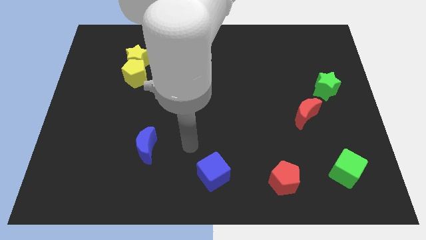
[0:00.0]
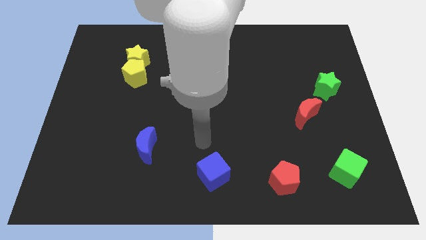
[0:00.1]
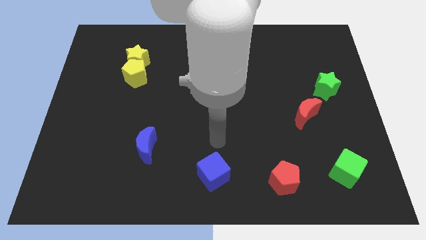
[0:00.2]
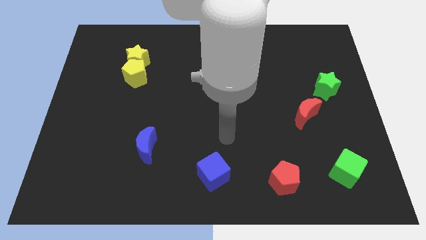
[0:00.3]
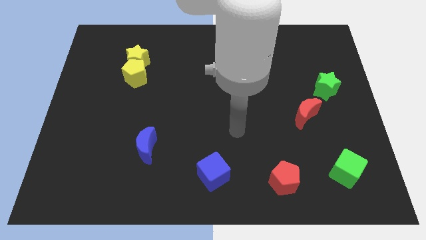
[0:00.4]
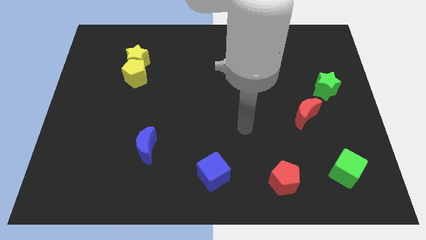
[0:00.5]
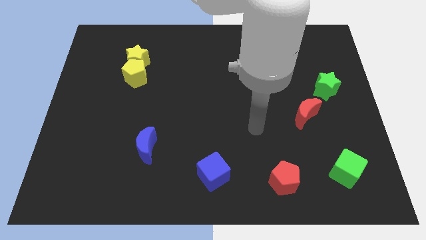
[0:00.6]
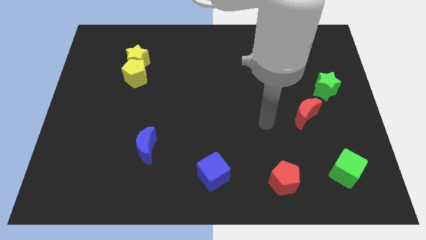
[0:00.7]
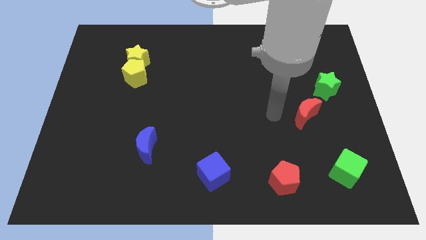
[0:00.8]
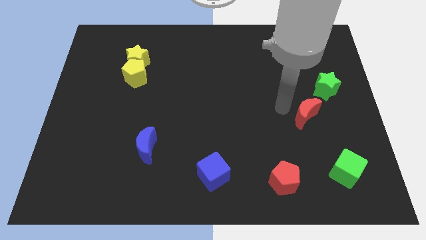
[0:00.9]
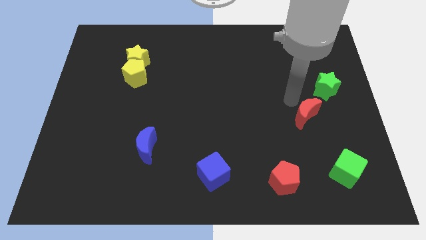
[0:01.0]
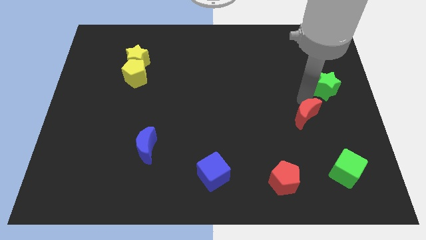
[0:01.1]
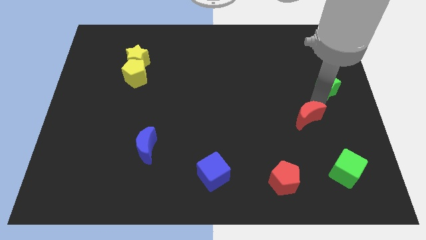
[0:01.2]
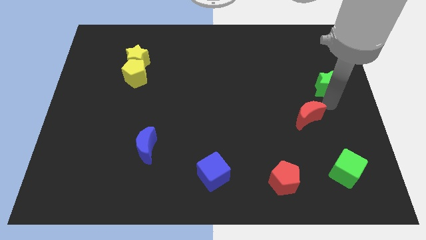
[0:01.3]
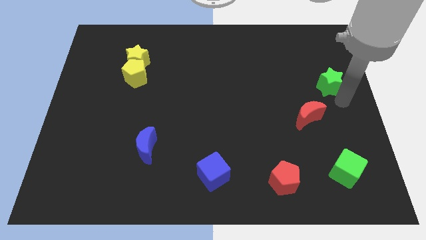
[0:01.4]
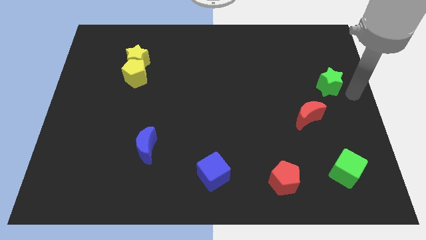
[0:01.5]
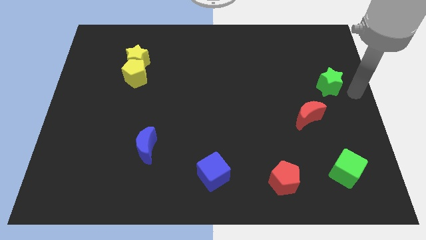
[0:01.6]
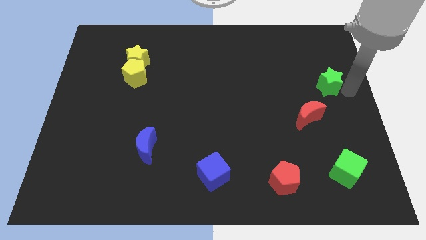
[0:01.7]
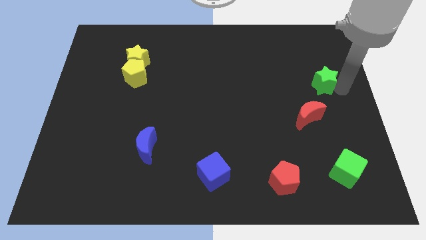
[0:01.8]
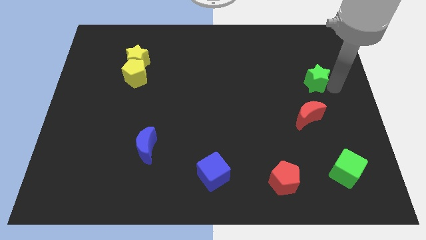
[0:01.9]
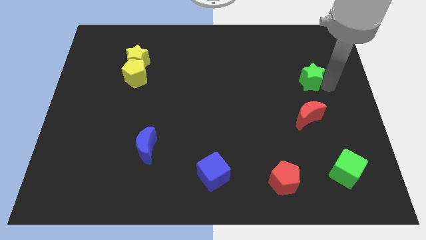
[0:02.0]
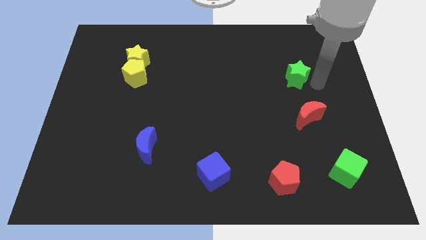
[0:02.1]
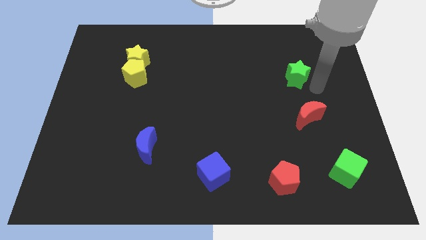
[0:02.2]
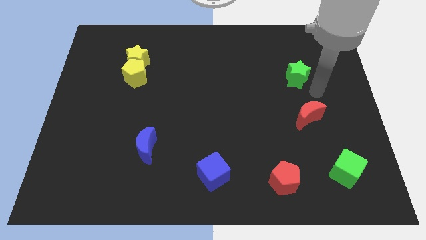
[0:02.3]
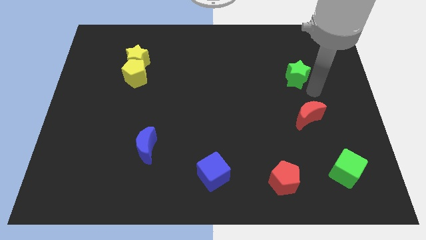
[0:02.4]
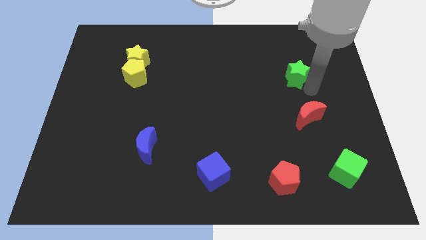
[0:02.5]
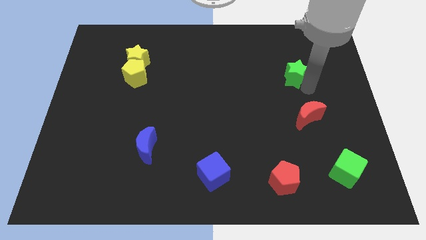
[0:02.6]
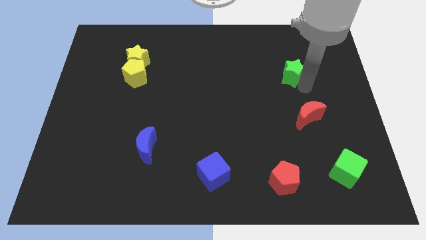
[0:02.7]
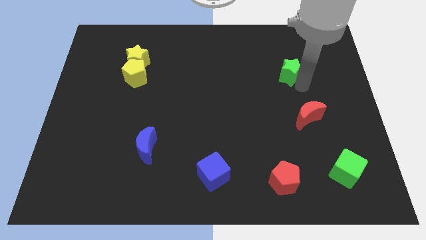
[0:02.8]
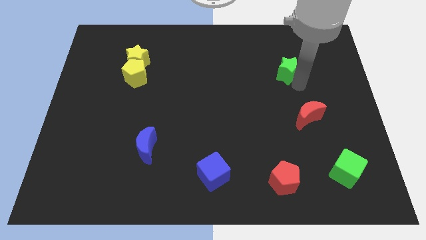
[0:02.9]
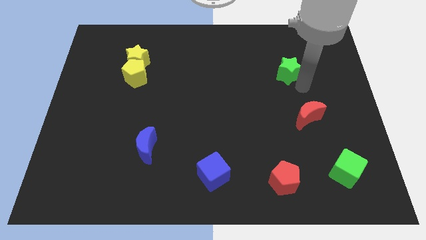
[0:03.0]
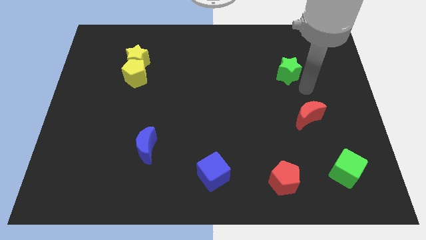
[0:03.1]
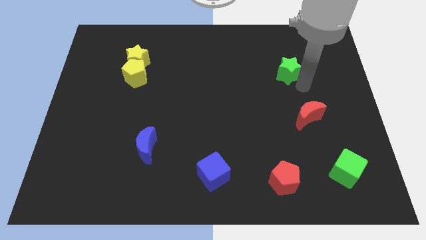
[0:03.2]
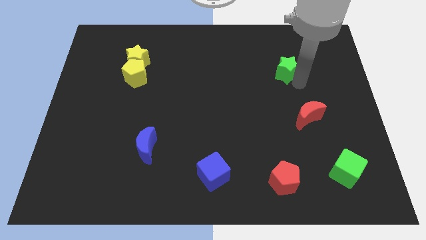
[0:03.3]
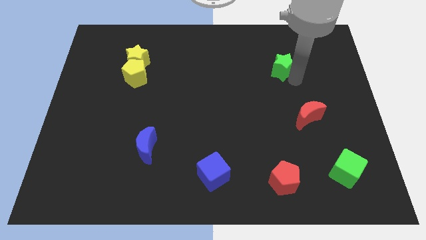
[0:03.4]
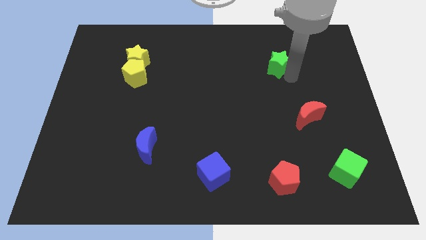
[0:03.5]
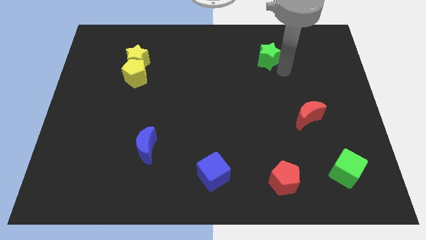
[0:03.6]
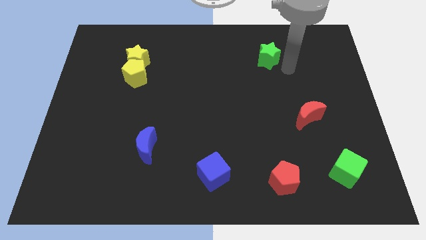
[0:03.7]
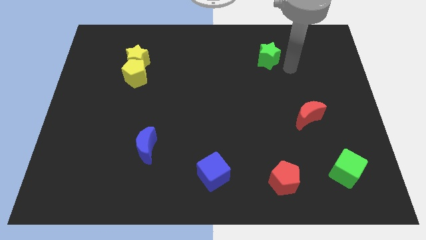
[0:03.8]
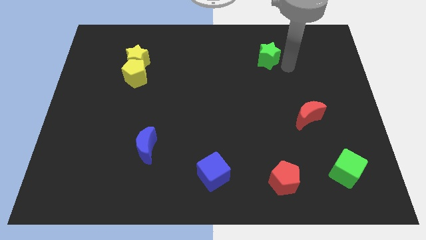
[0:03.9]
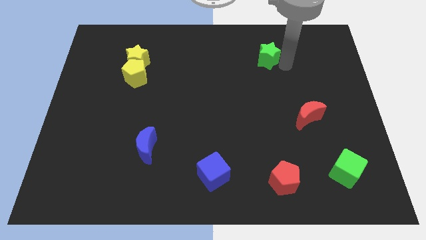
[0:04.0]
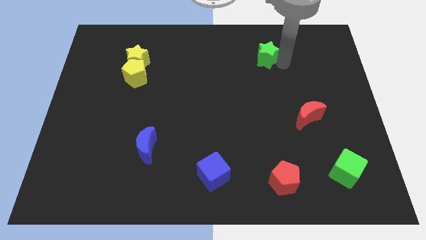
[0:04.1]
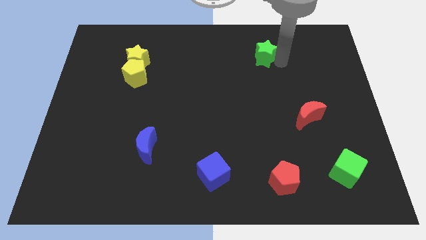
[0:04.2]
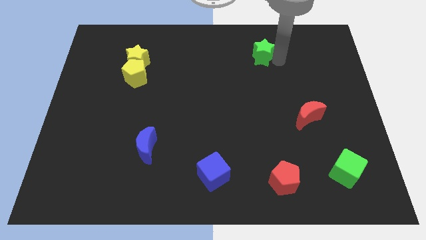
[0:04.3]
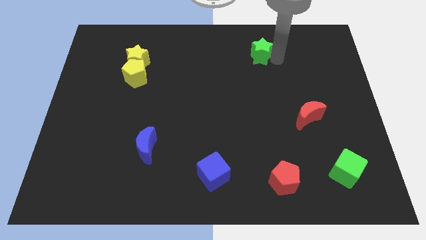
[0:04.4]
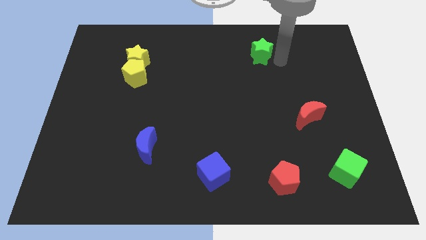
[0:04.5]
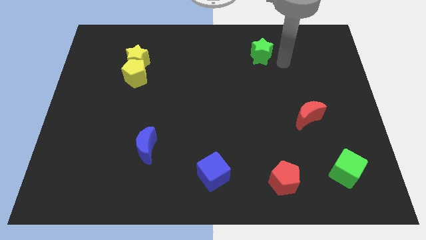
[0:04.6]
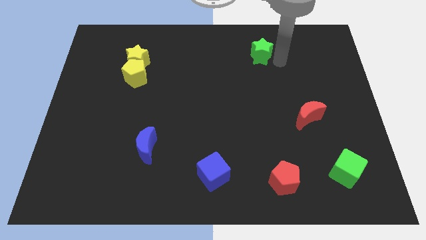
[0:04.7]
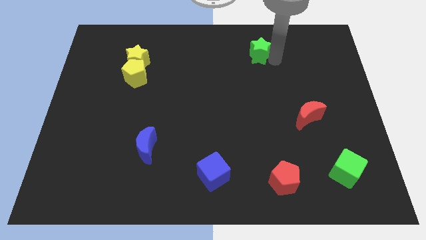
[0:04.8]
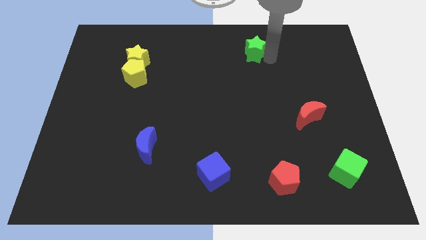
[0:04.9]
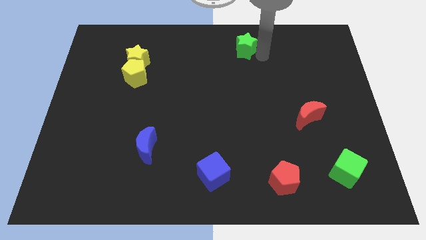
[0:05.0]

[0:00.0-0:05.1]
put the green star to the top side

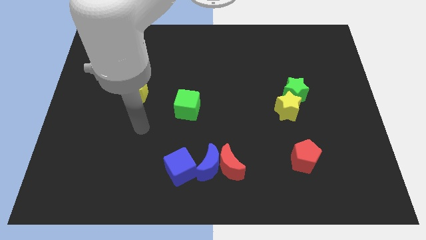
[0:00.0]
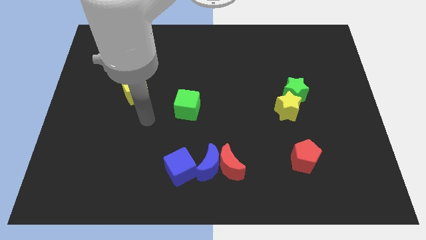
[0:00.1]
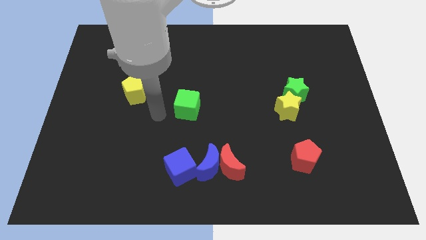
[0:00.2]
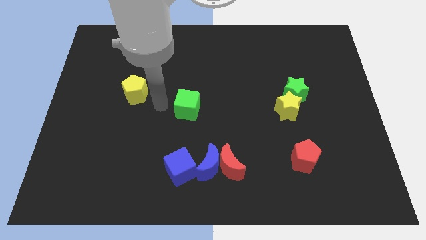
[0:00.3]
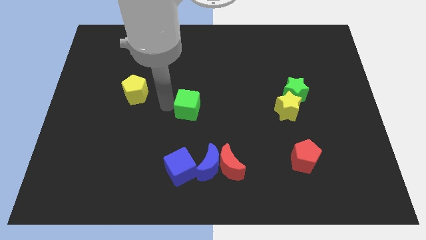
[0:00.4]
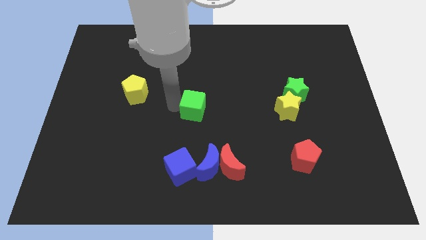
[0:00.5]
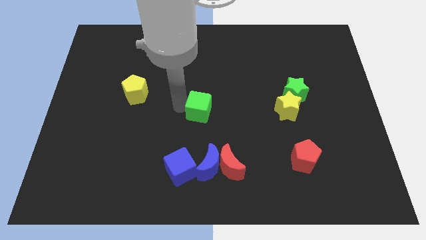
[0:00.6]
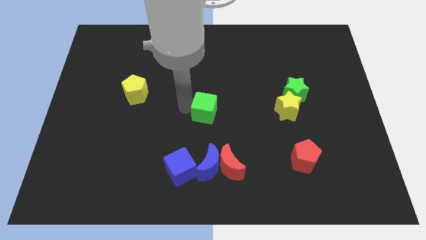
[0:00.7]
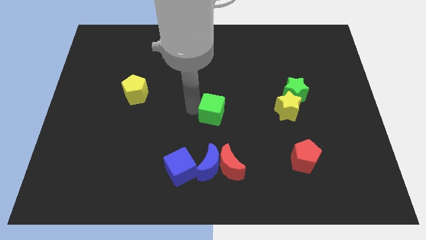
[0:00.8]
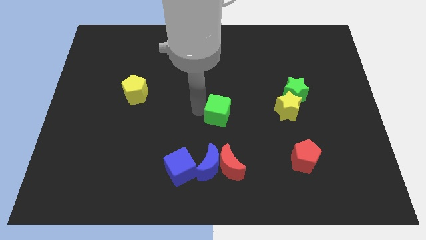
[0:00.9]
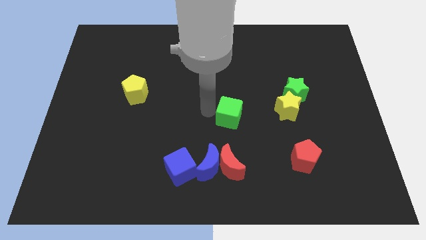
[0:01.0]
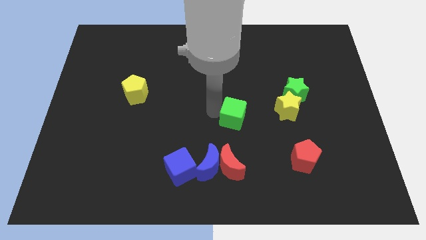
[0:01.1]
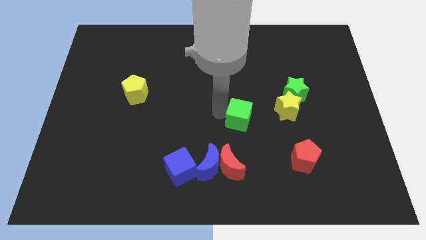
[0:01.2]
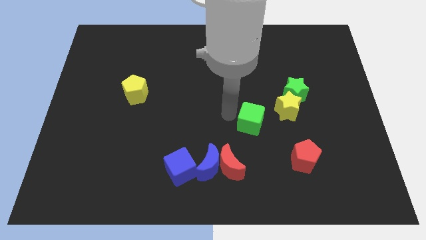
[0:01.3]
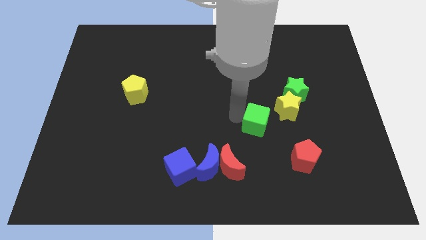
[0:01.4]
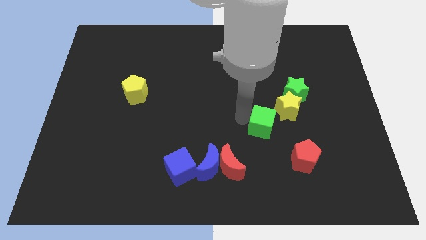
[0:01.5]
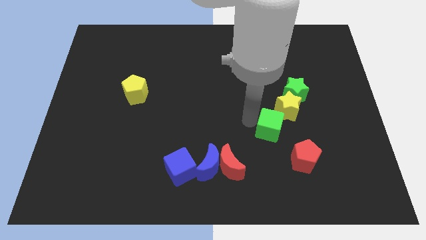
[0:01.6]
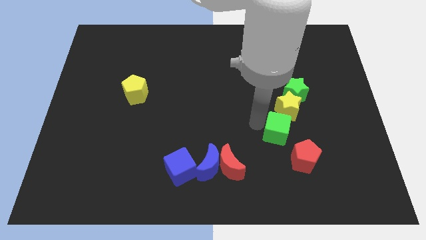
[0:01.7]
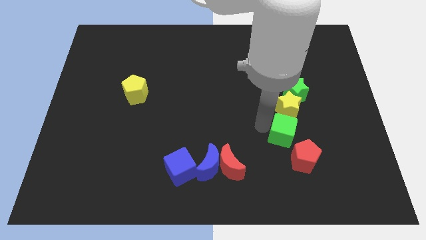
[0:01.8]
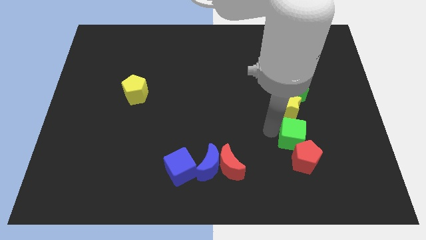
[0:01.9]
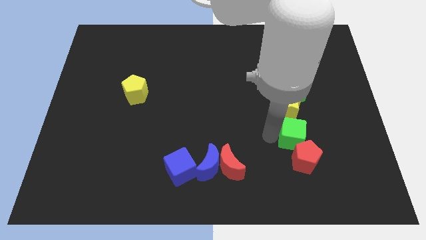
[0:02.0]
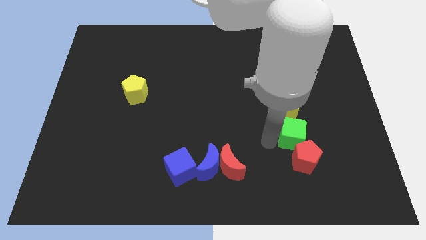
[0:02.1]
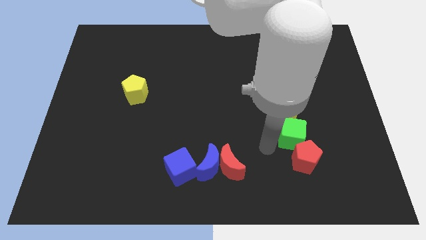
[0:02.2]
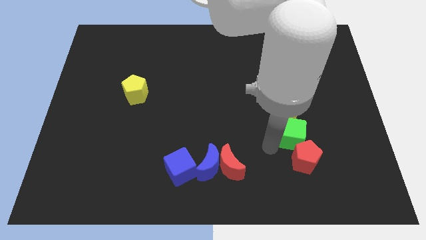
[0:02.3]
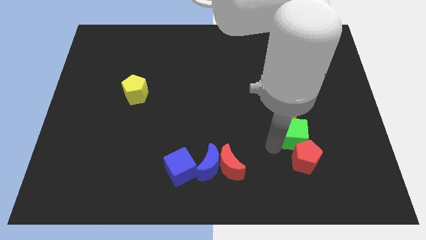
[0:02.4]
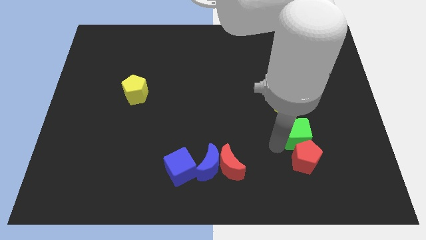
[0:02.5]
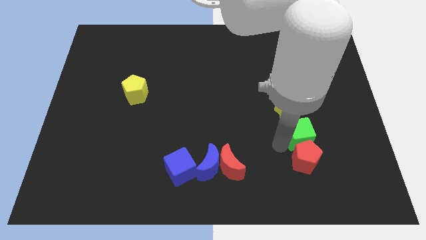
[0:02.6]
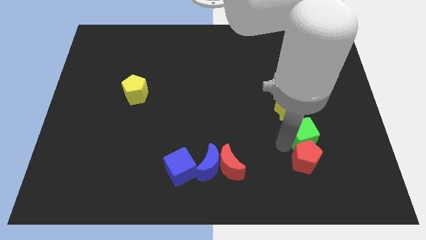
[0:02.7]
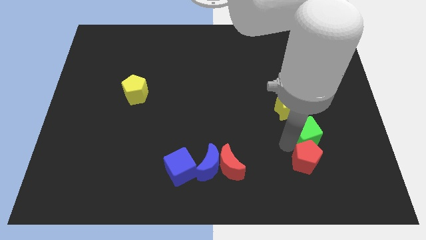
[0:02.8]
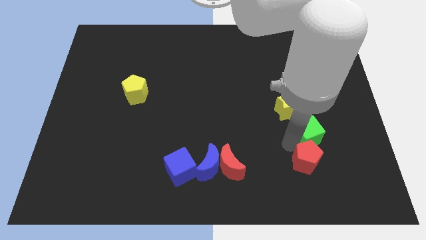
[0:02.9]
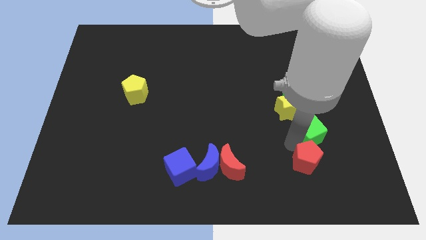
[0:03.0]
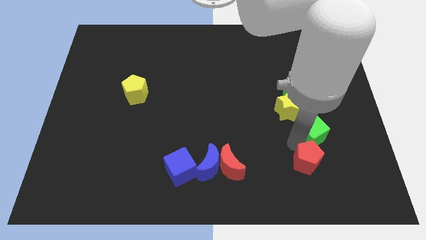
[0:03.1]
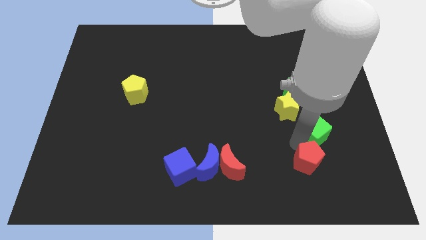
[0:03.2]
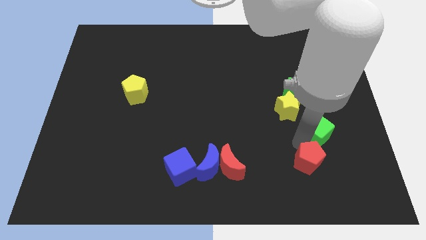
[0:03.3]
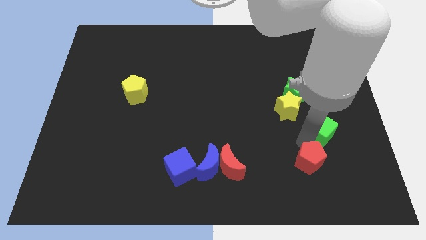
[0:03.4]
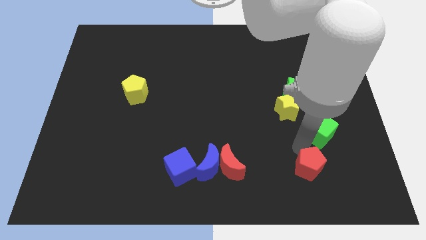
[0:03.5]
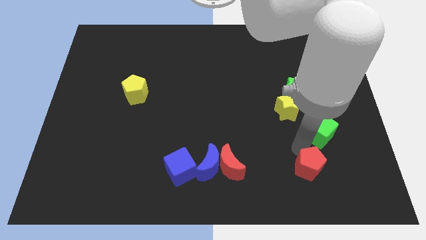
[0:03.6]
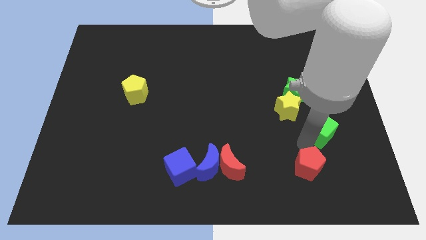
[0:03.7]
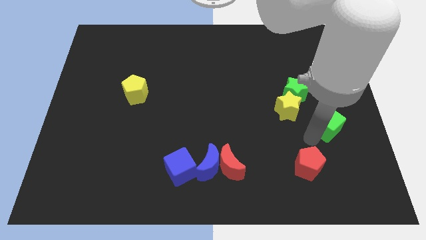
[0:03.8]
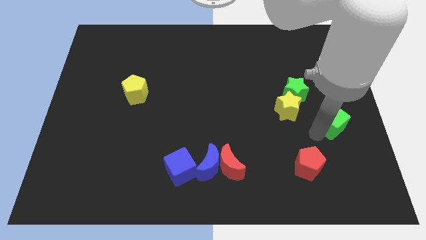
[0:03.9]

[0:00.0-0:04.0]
move the green cube to the right side
